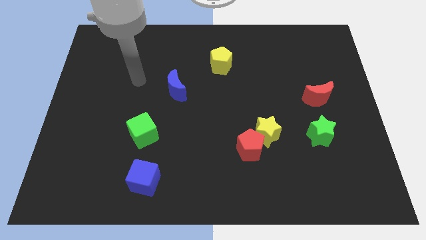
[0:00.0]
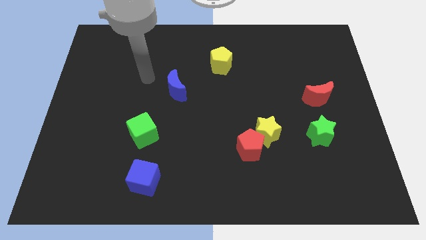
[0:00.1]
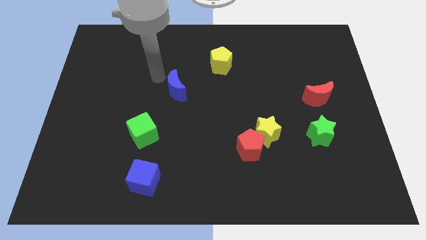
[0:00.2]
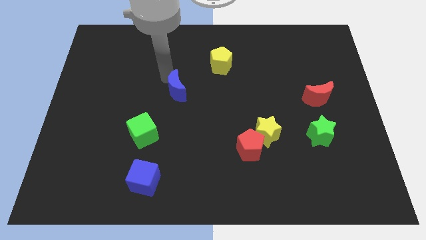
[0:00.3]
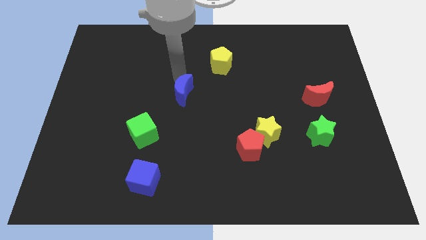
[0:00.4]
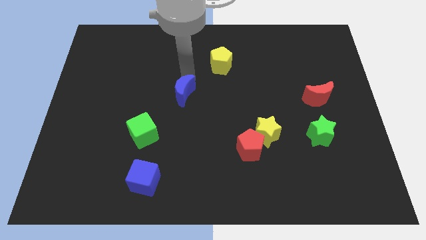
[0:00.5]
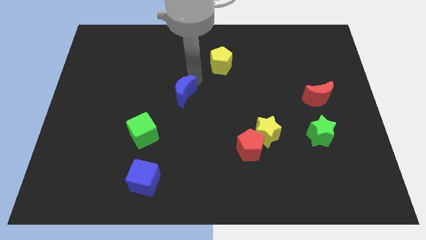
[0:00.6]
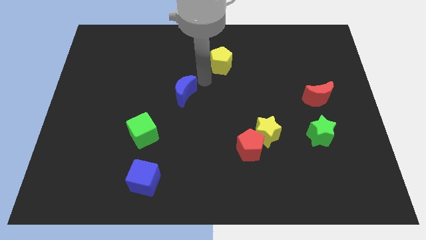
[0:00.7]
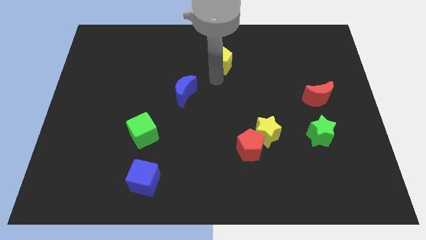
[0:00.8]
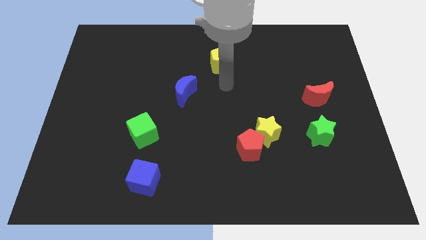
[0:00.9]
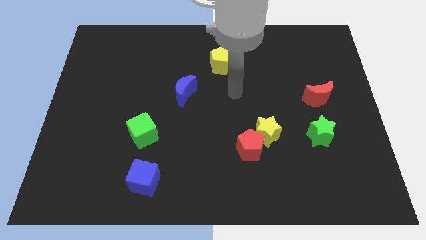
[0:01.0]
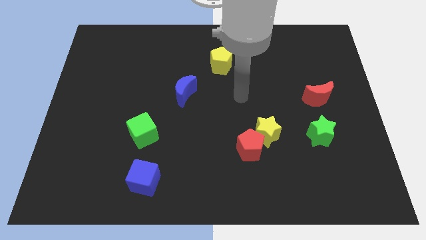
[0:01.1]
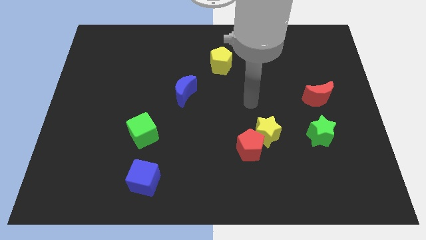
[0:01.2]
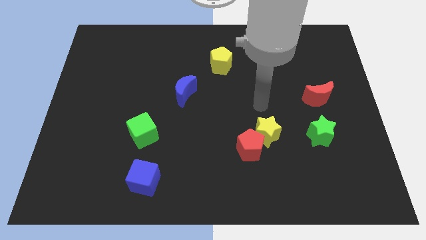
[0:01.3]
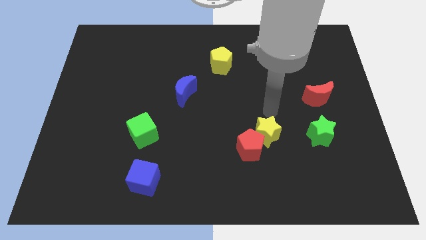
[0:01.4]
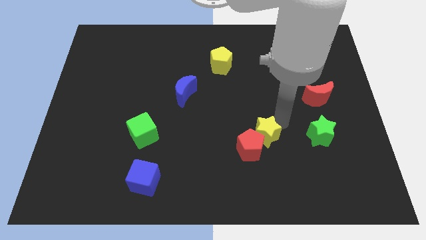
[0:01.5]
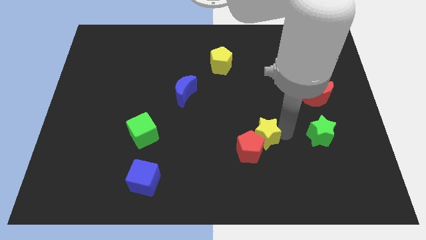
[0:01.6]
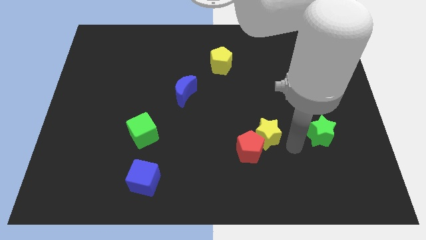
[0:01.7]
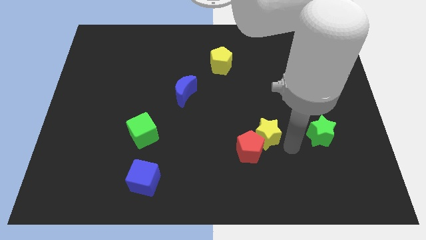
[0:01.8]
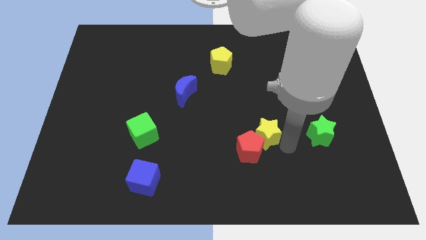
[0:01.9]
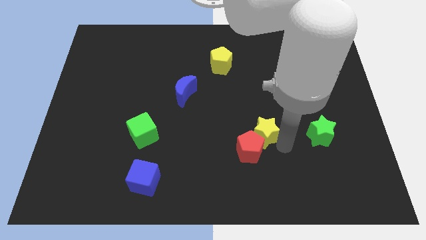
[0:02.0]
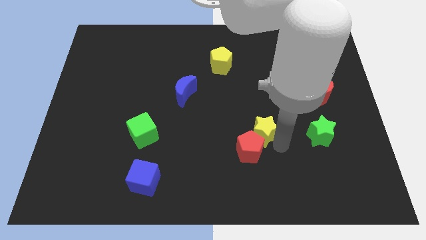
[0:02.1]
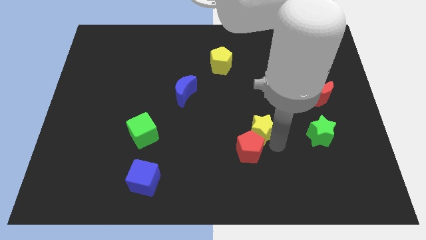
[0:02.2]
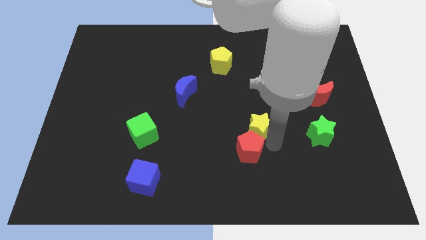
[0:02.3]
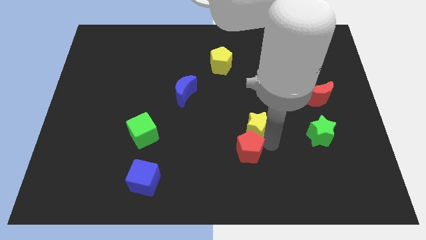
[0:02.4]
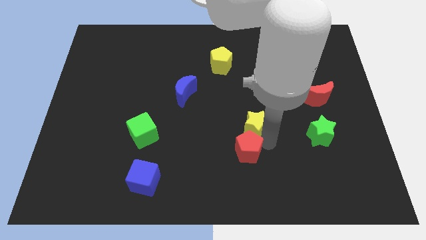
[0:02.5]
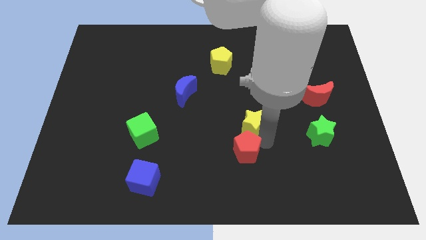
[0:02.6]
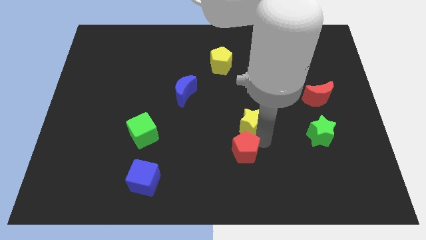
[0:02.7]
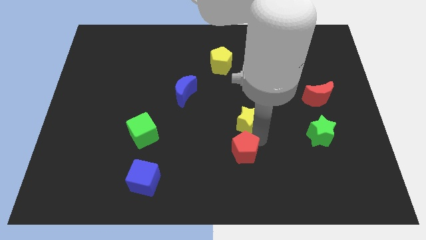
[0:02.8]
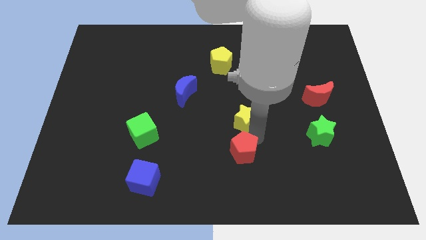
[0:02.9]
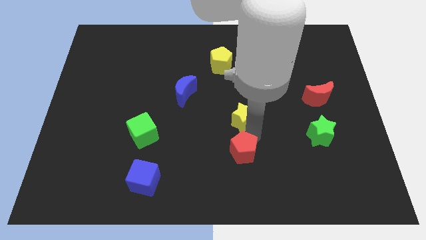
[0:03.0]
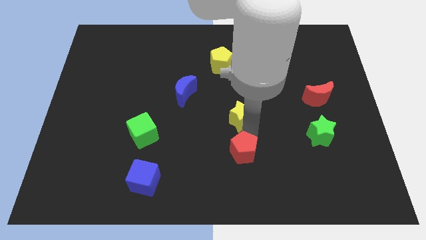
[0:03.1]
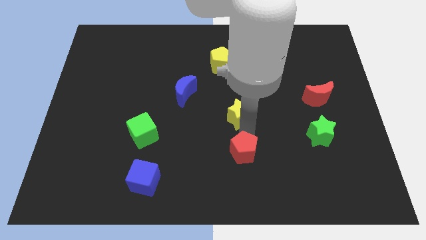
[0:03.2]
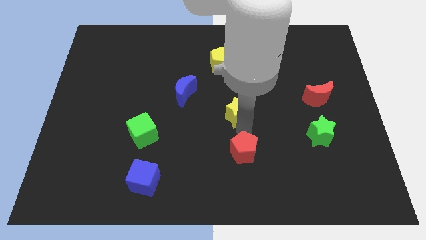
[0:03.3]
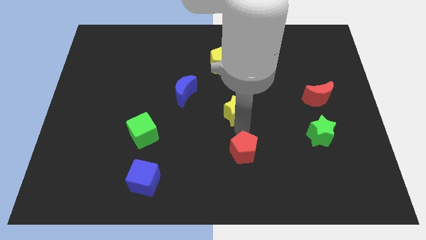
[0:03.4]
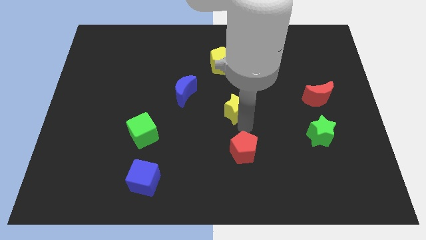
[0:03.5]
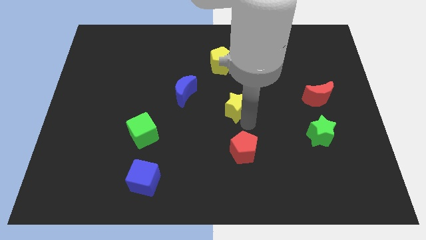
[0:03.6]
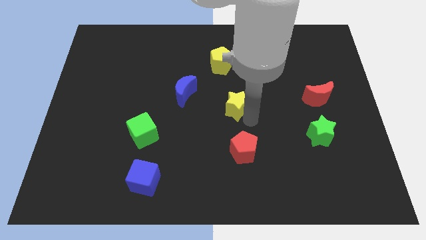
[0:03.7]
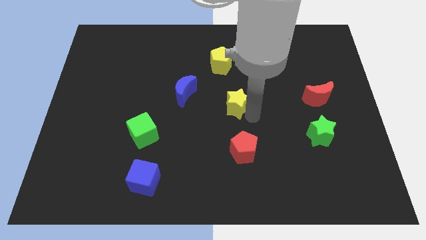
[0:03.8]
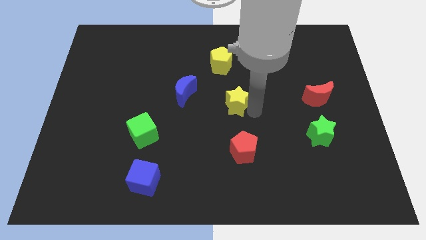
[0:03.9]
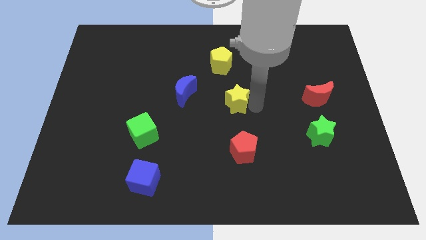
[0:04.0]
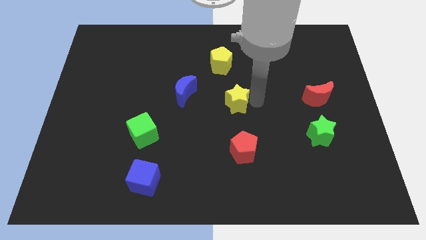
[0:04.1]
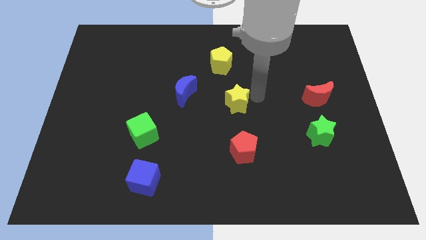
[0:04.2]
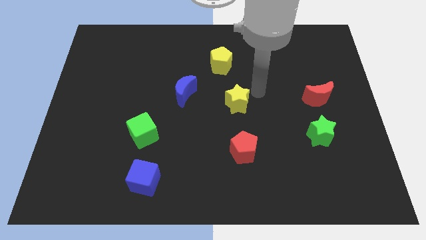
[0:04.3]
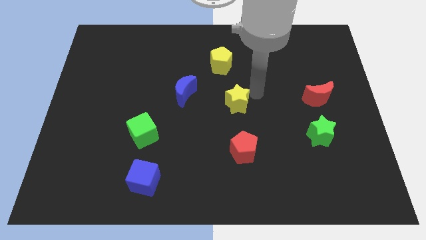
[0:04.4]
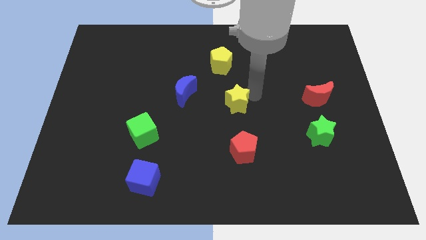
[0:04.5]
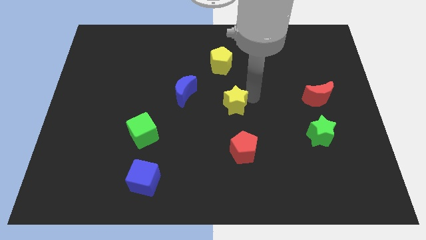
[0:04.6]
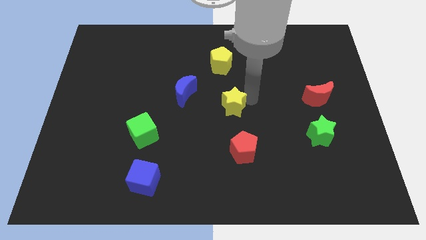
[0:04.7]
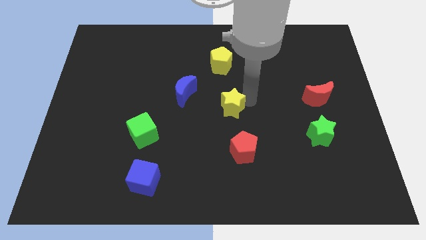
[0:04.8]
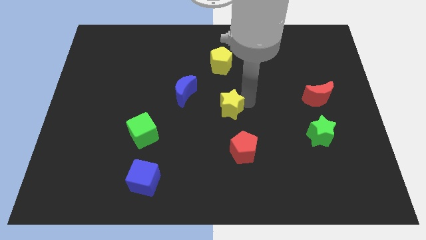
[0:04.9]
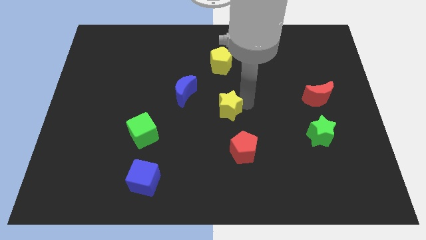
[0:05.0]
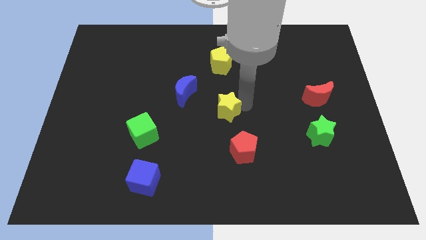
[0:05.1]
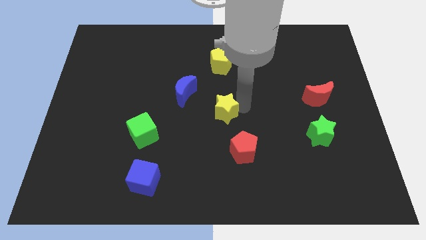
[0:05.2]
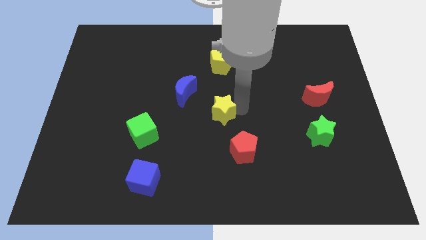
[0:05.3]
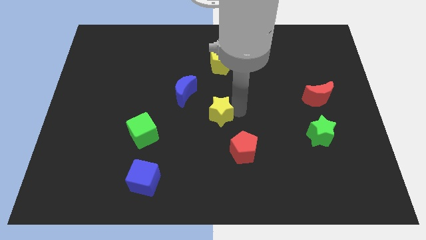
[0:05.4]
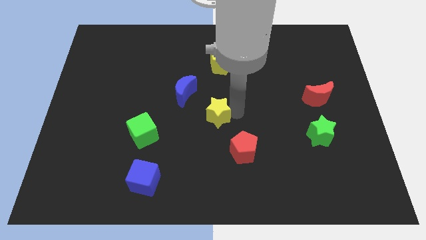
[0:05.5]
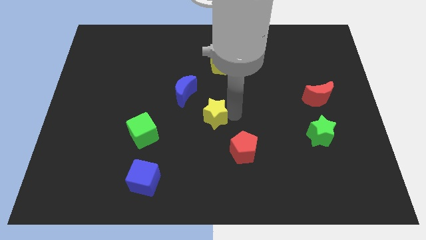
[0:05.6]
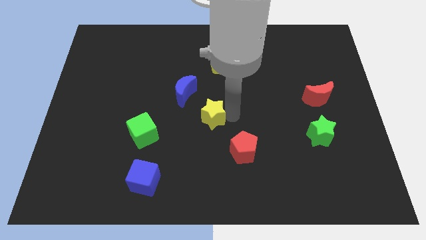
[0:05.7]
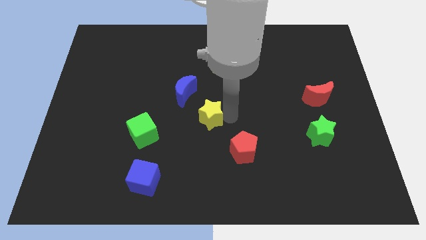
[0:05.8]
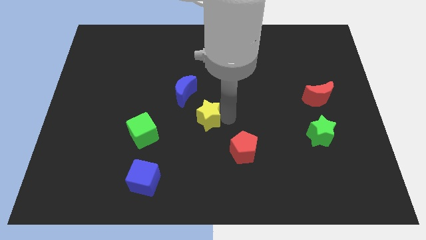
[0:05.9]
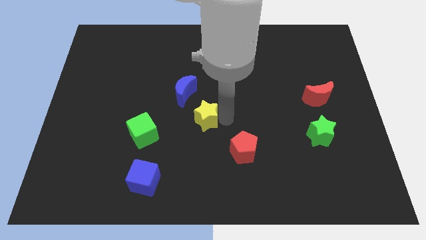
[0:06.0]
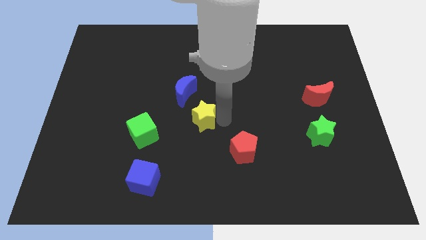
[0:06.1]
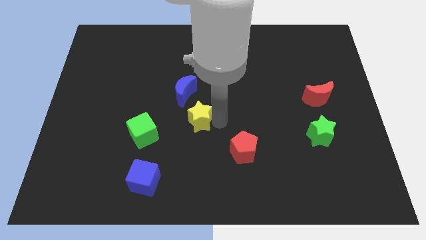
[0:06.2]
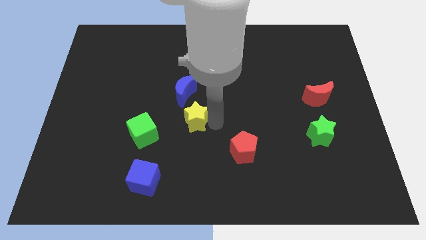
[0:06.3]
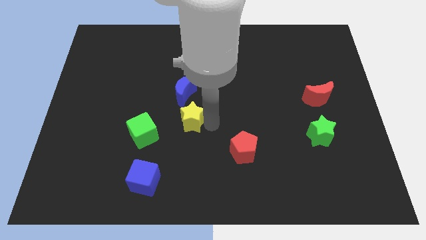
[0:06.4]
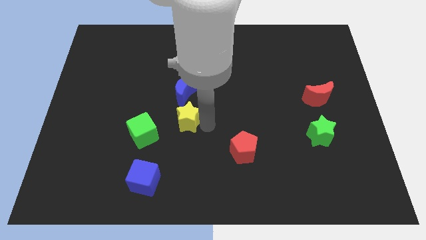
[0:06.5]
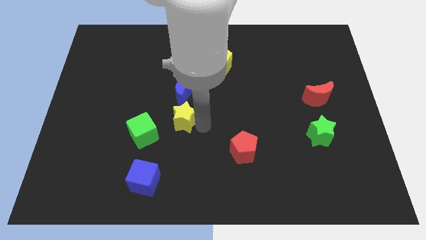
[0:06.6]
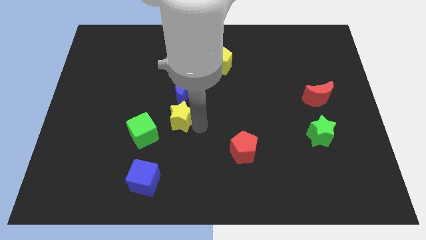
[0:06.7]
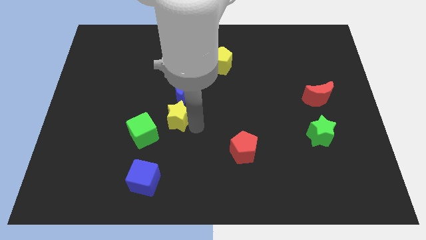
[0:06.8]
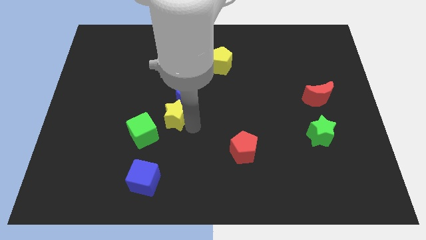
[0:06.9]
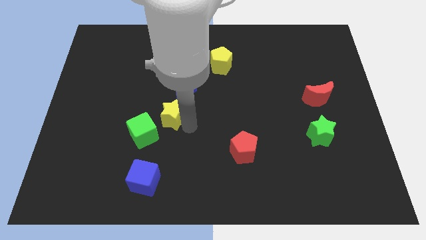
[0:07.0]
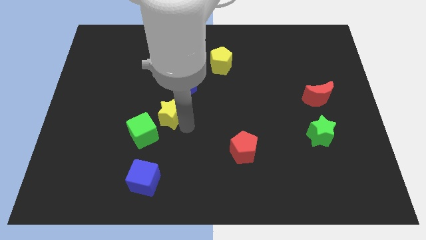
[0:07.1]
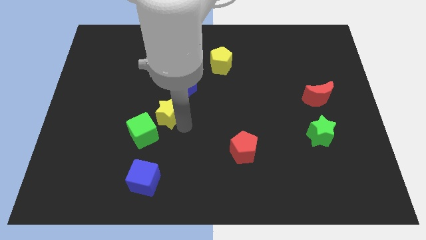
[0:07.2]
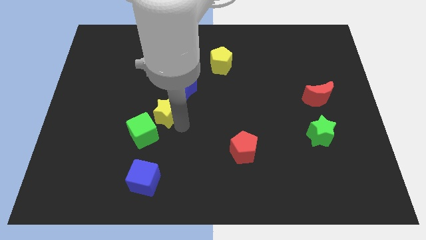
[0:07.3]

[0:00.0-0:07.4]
put the yellow star to the top side of the green cube
